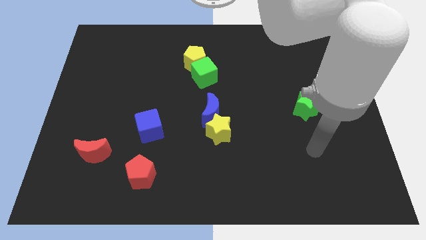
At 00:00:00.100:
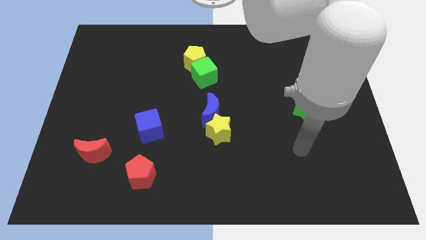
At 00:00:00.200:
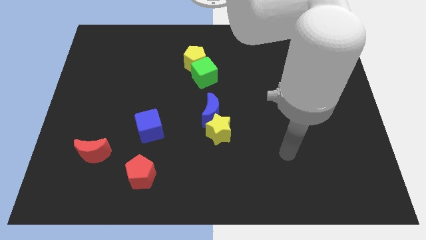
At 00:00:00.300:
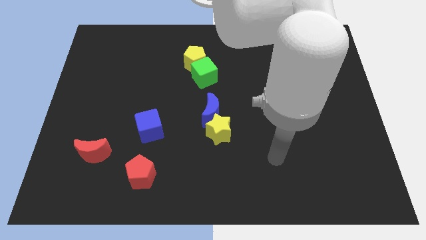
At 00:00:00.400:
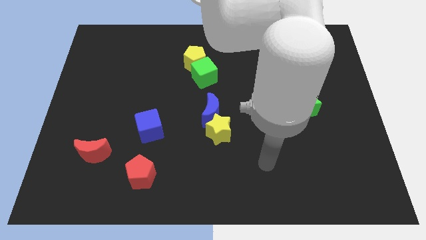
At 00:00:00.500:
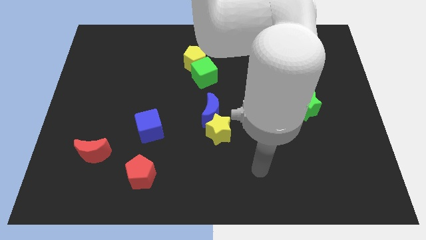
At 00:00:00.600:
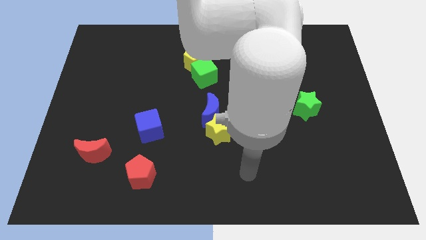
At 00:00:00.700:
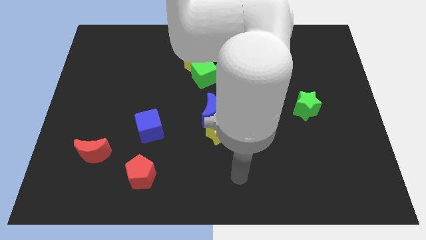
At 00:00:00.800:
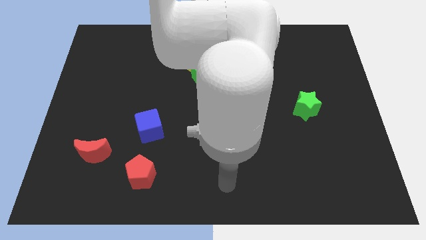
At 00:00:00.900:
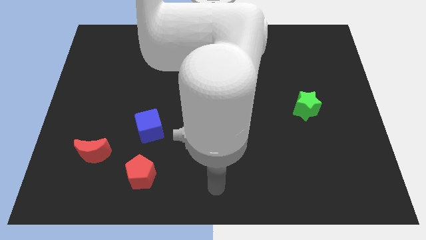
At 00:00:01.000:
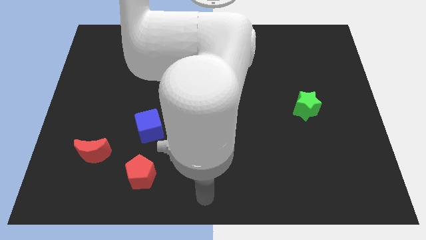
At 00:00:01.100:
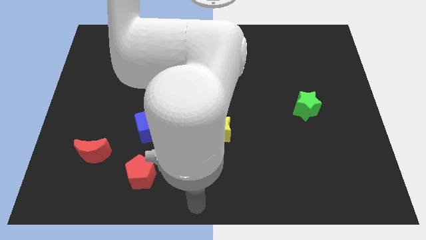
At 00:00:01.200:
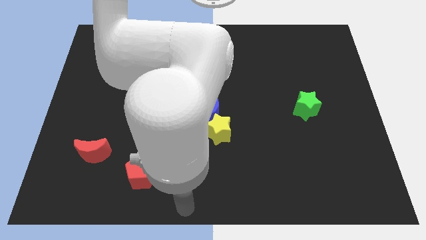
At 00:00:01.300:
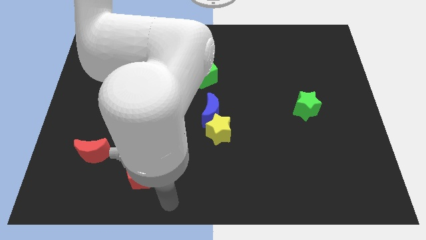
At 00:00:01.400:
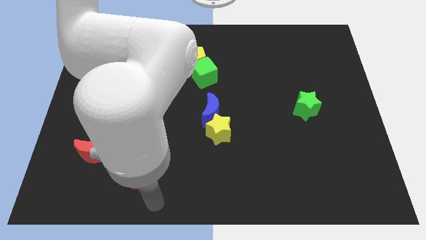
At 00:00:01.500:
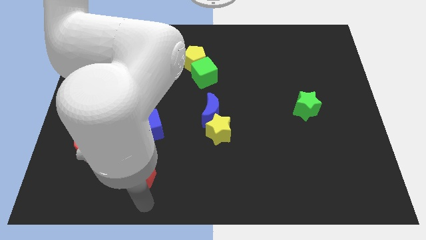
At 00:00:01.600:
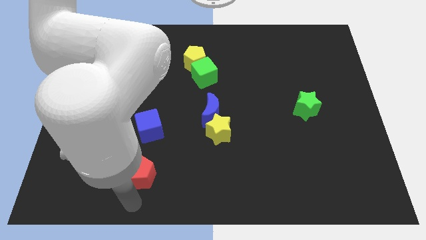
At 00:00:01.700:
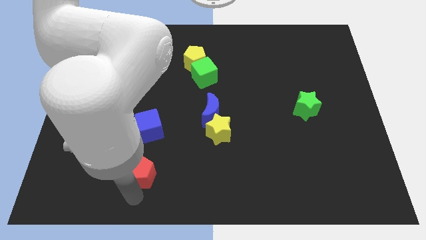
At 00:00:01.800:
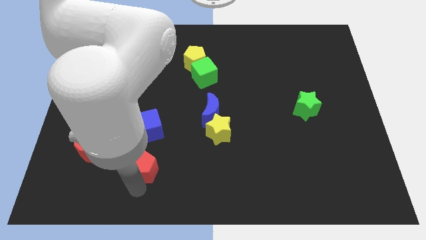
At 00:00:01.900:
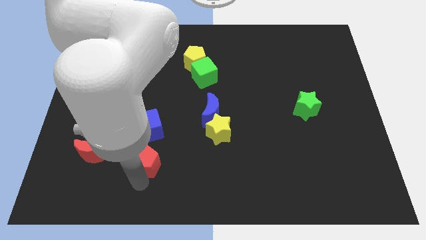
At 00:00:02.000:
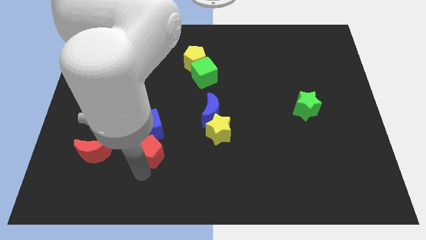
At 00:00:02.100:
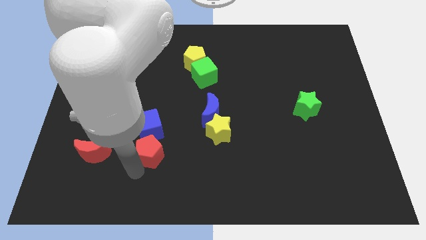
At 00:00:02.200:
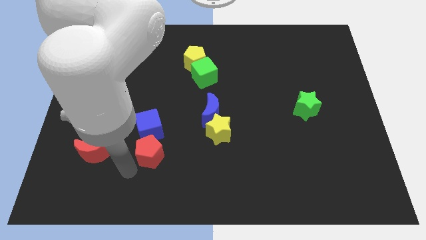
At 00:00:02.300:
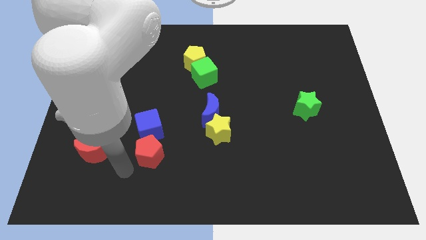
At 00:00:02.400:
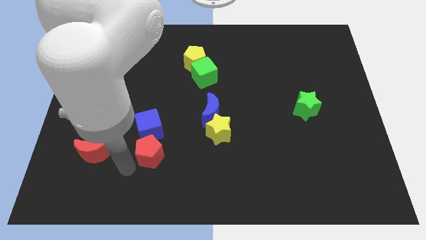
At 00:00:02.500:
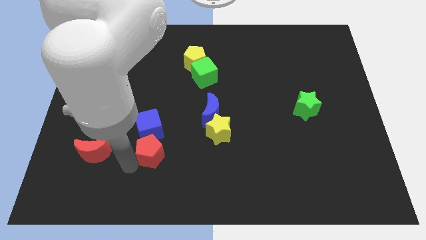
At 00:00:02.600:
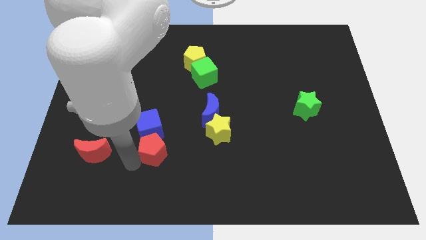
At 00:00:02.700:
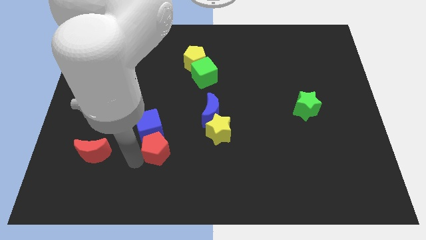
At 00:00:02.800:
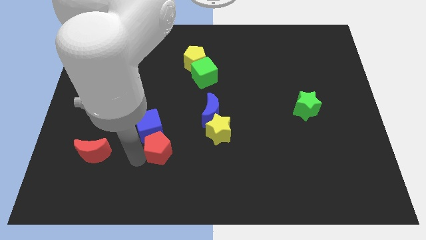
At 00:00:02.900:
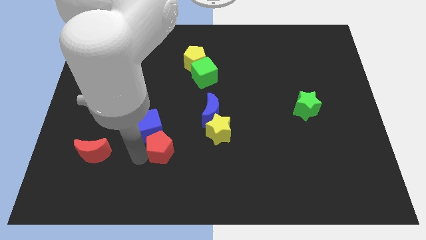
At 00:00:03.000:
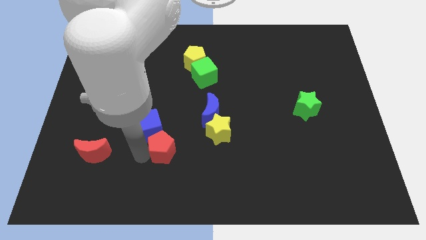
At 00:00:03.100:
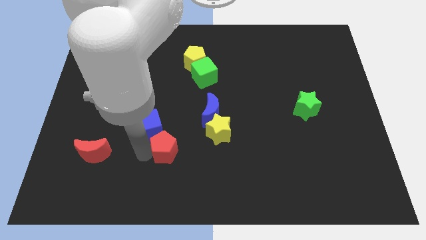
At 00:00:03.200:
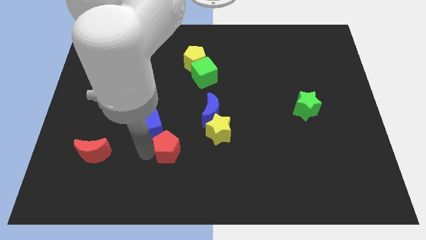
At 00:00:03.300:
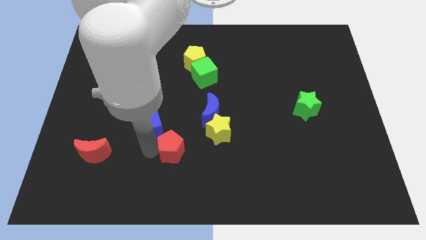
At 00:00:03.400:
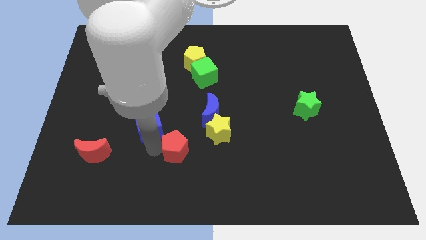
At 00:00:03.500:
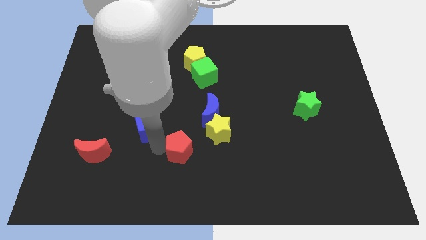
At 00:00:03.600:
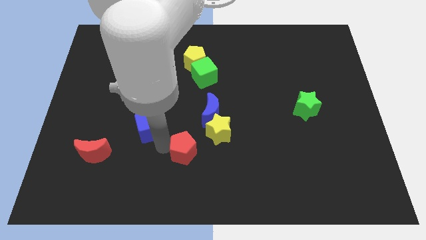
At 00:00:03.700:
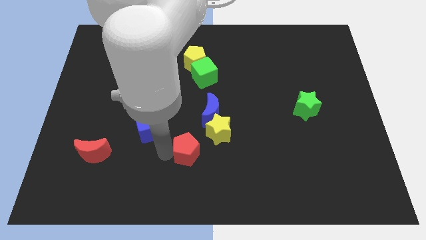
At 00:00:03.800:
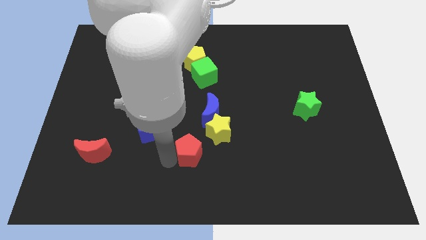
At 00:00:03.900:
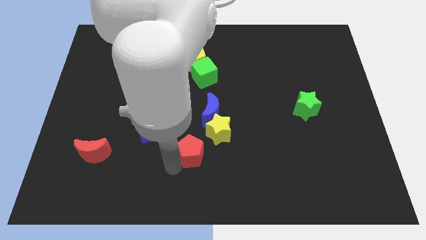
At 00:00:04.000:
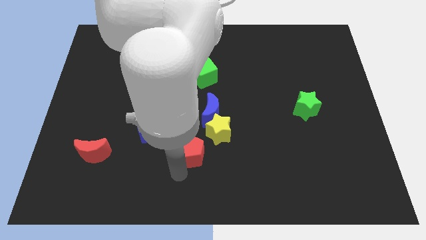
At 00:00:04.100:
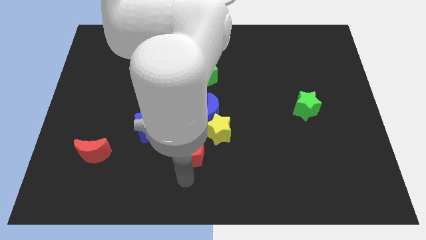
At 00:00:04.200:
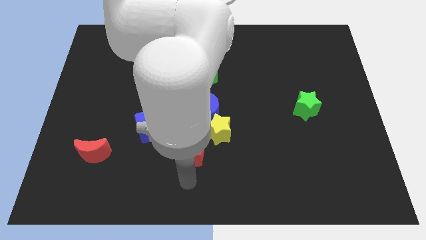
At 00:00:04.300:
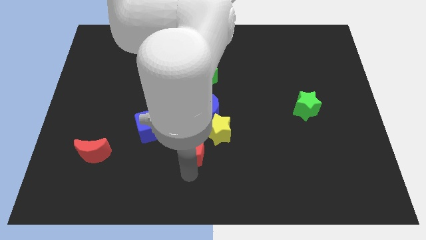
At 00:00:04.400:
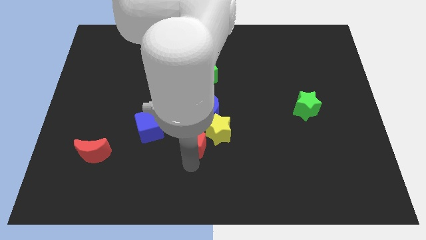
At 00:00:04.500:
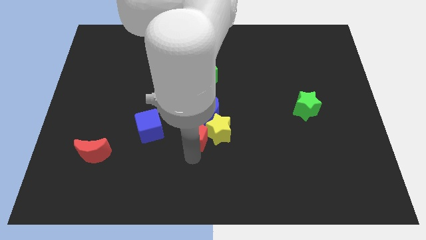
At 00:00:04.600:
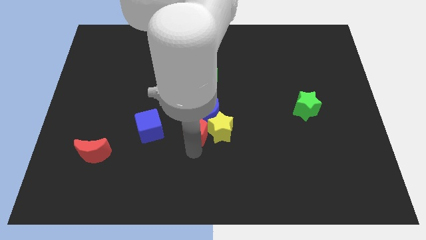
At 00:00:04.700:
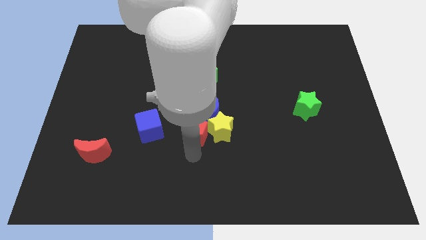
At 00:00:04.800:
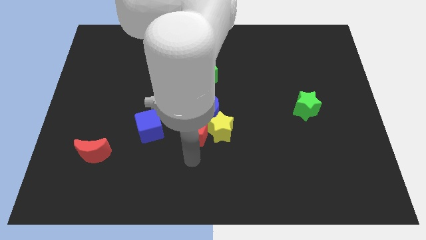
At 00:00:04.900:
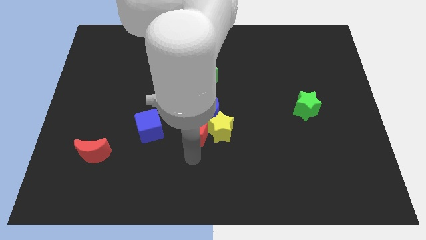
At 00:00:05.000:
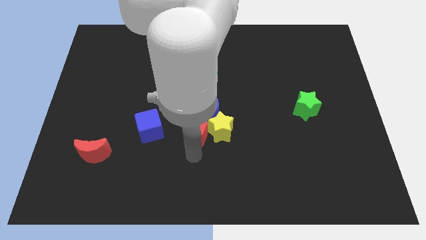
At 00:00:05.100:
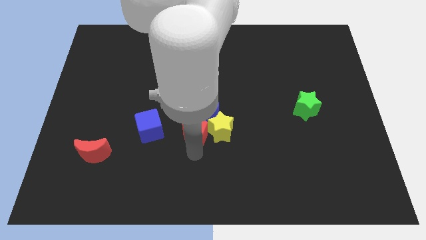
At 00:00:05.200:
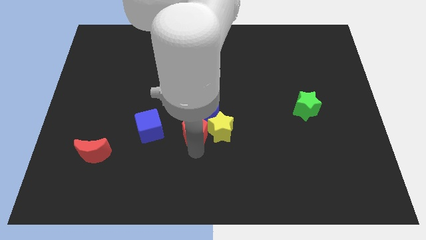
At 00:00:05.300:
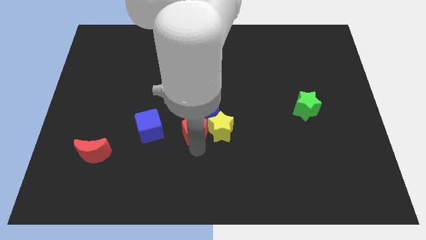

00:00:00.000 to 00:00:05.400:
push the red pentagon towards the blue moon

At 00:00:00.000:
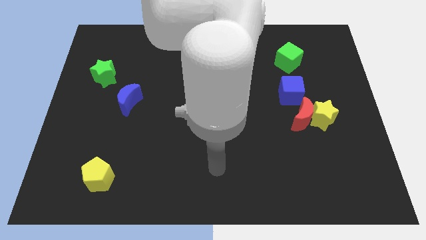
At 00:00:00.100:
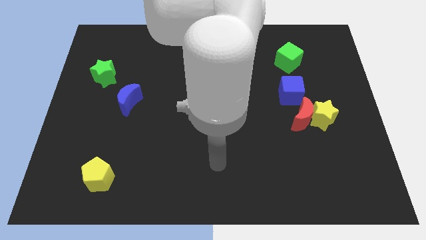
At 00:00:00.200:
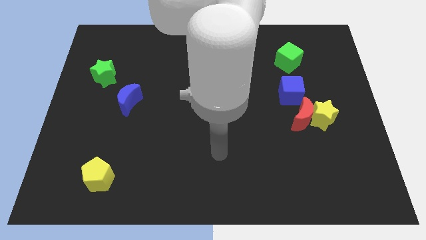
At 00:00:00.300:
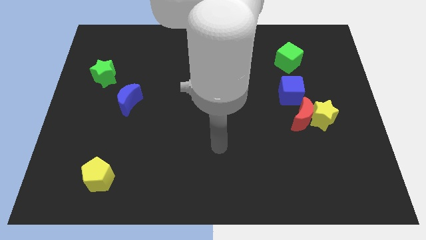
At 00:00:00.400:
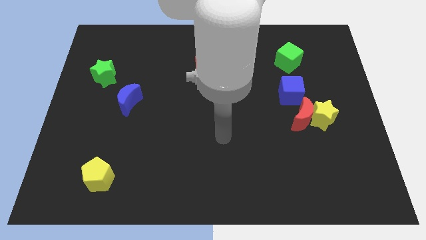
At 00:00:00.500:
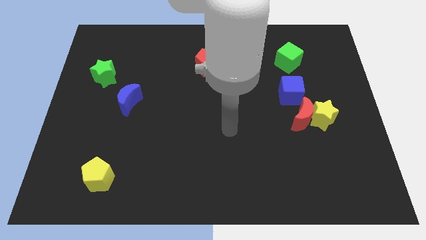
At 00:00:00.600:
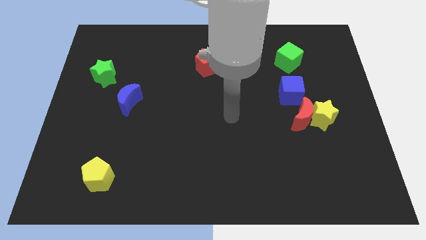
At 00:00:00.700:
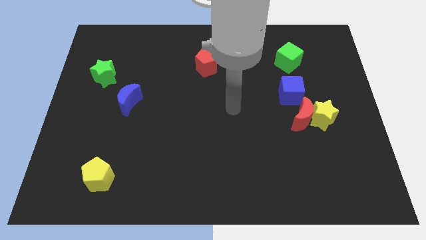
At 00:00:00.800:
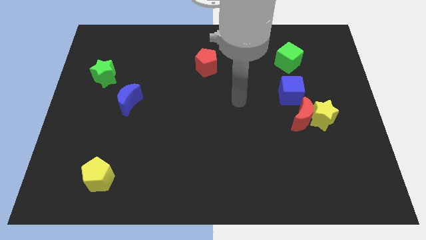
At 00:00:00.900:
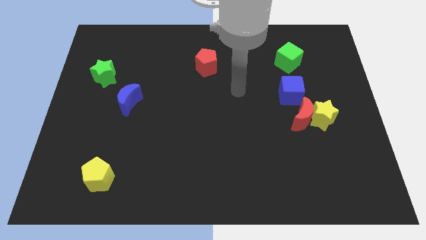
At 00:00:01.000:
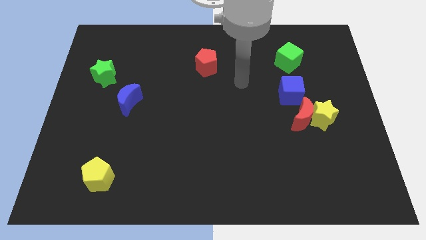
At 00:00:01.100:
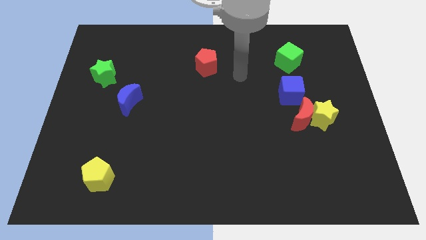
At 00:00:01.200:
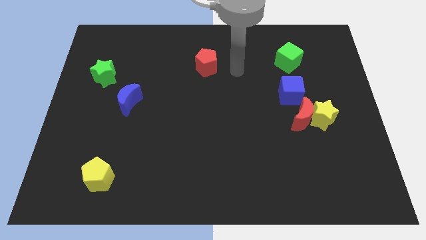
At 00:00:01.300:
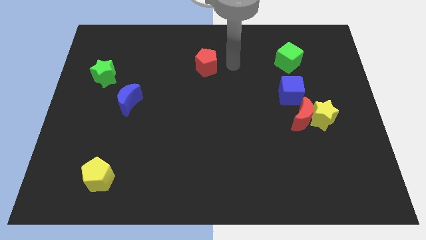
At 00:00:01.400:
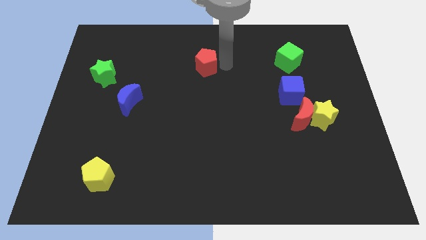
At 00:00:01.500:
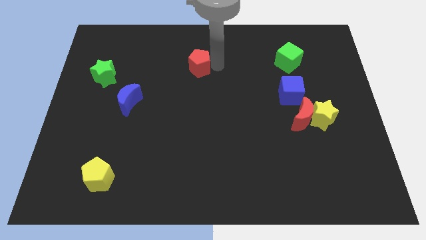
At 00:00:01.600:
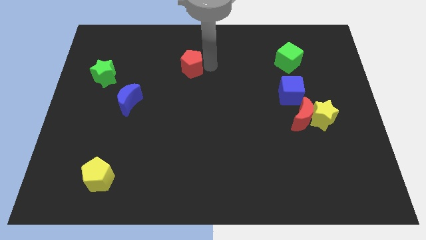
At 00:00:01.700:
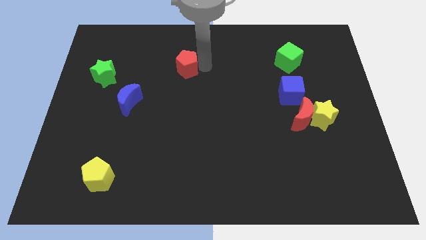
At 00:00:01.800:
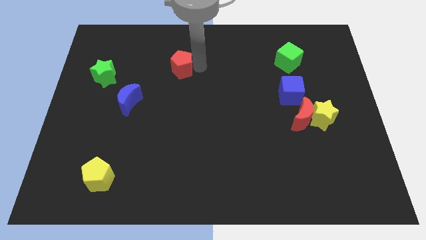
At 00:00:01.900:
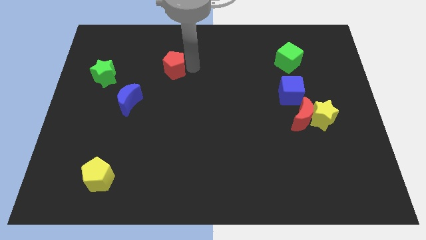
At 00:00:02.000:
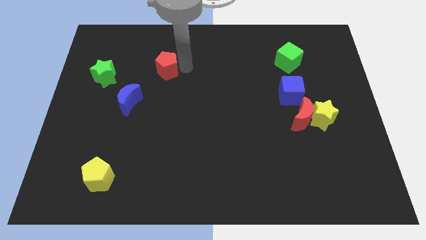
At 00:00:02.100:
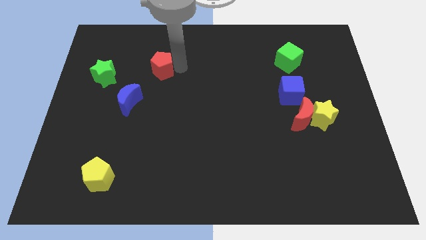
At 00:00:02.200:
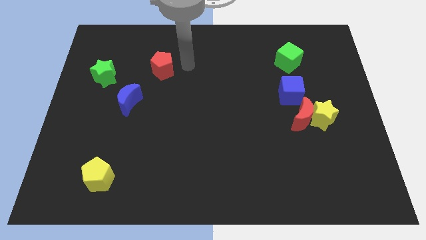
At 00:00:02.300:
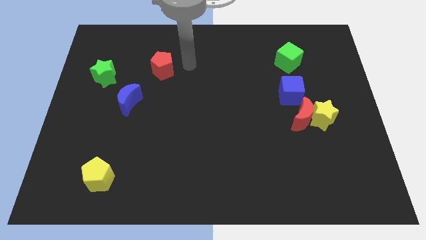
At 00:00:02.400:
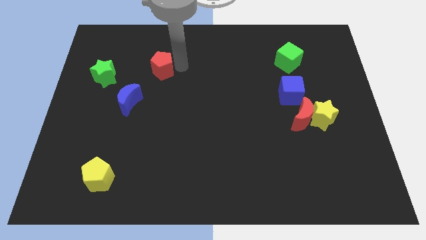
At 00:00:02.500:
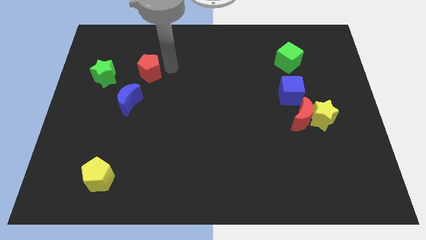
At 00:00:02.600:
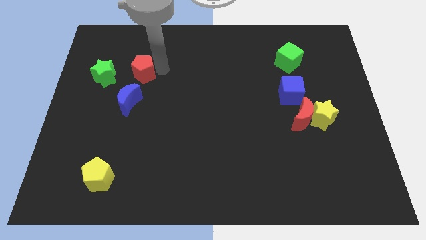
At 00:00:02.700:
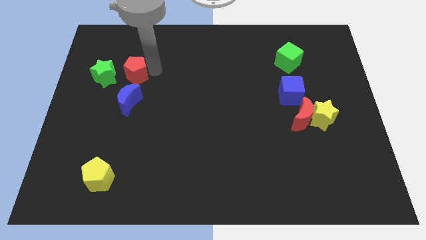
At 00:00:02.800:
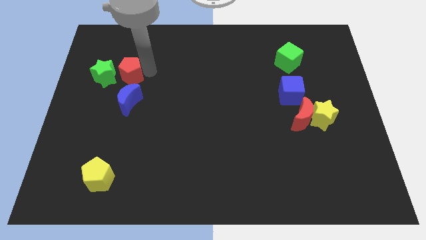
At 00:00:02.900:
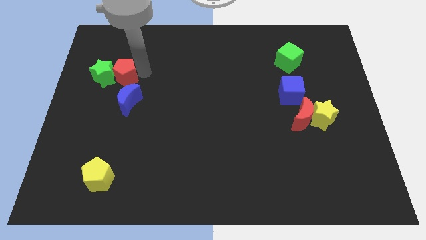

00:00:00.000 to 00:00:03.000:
push the red pentagon close to the green star
